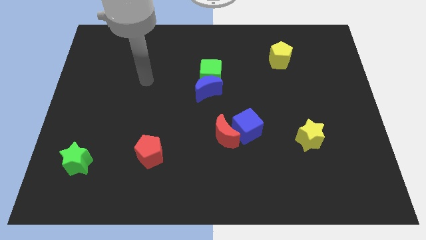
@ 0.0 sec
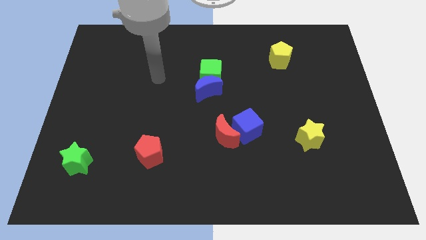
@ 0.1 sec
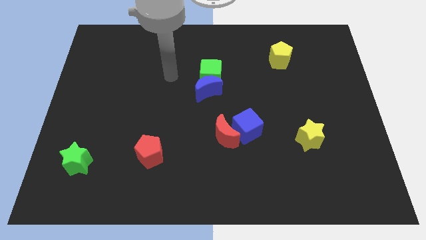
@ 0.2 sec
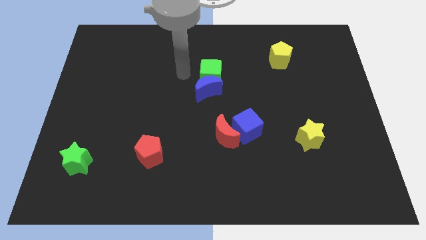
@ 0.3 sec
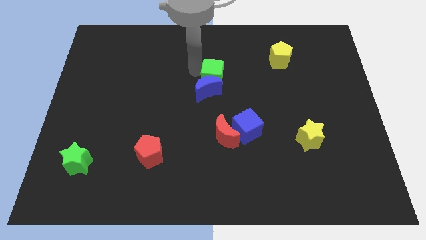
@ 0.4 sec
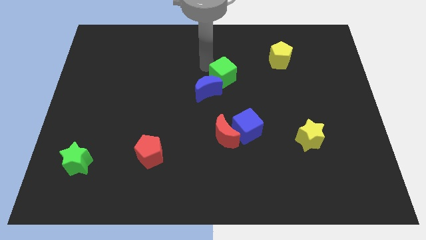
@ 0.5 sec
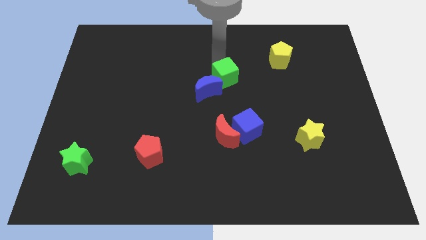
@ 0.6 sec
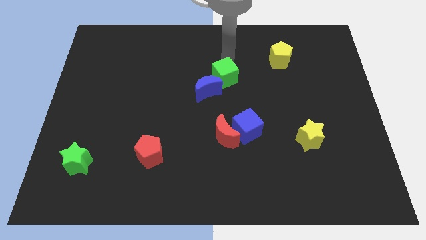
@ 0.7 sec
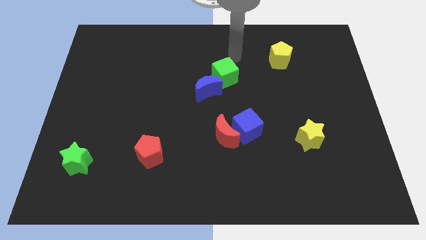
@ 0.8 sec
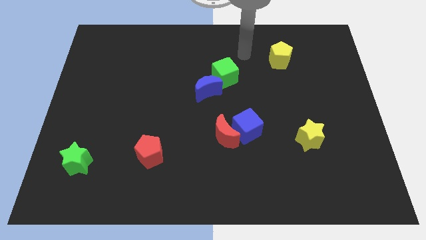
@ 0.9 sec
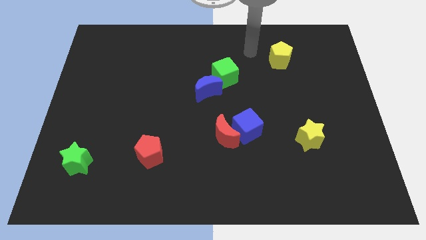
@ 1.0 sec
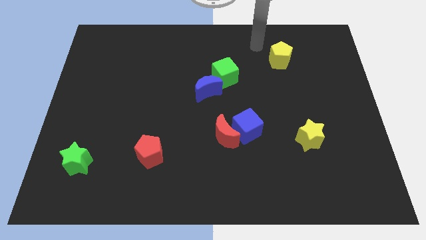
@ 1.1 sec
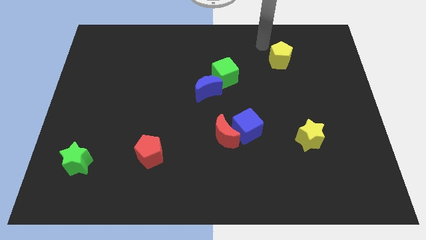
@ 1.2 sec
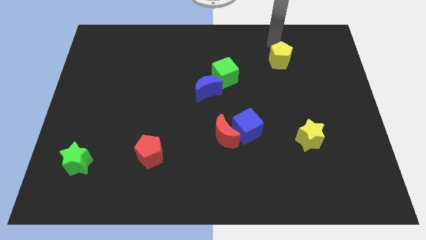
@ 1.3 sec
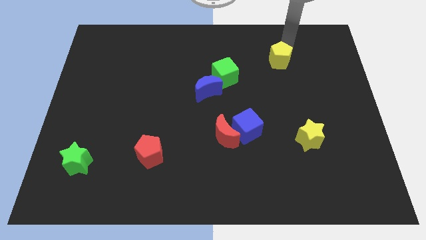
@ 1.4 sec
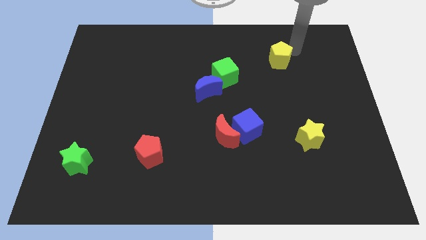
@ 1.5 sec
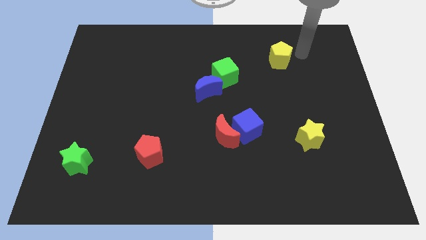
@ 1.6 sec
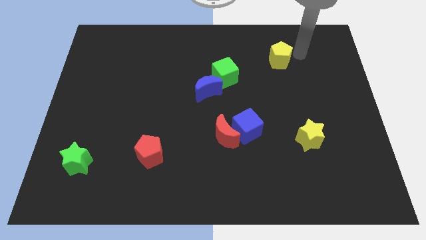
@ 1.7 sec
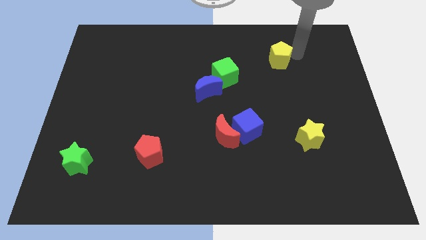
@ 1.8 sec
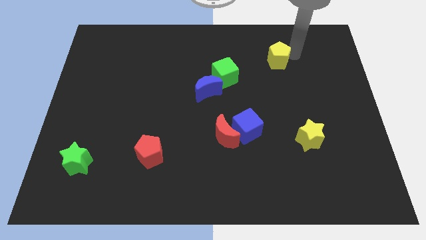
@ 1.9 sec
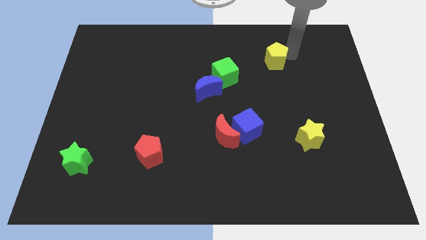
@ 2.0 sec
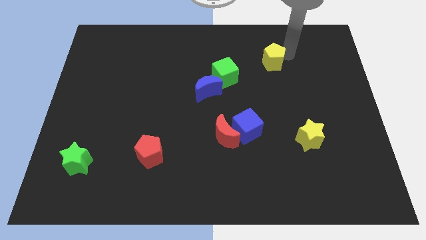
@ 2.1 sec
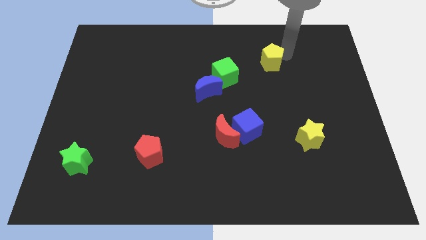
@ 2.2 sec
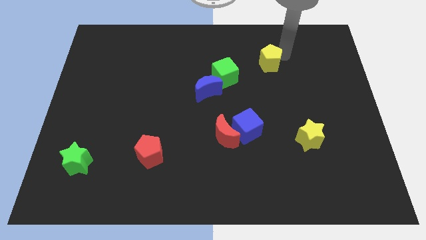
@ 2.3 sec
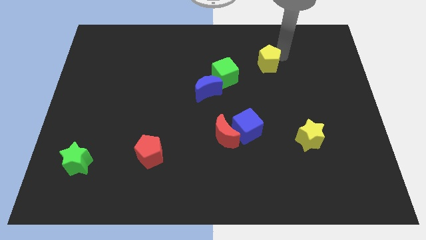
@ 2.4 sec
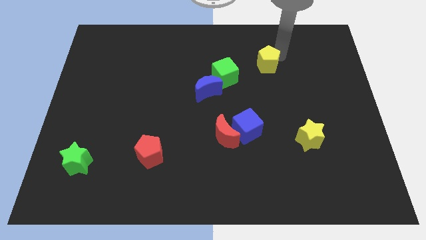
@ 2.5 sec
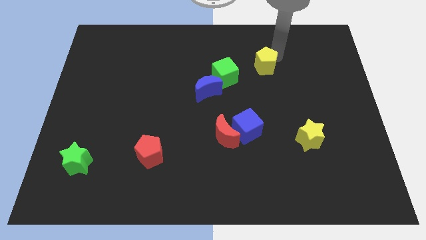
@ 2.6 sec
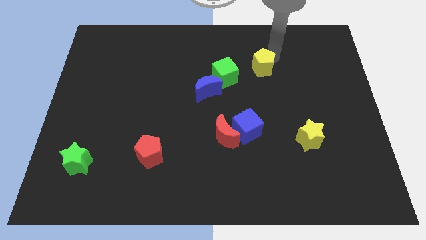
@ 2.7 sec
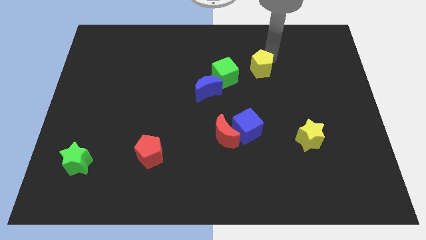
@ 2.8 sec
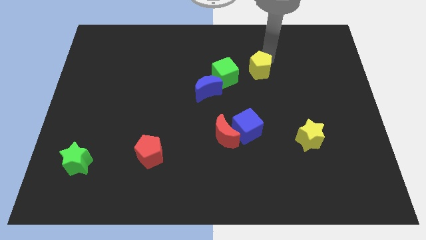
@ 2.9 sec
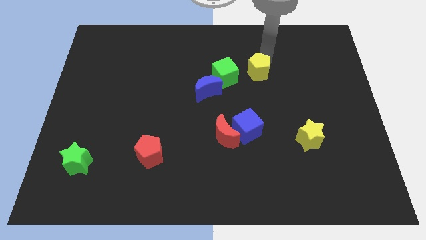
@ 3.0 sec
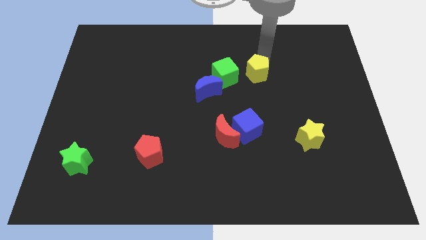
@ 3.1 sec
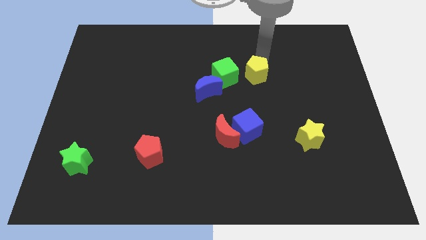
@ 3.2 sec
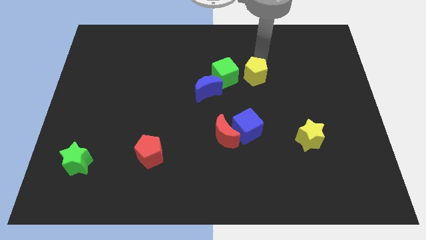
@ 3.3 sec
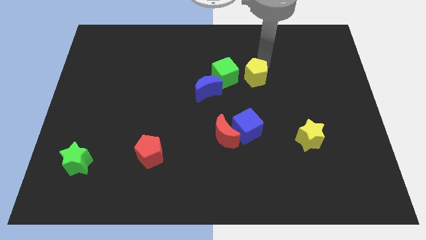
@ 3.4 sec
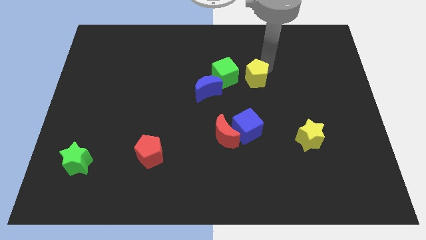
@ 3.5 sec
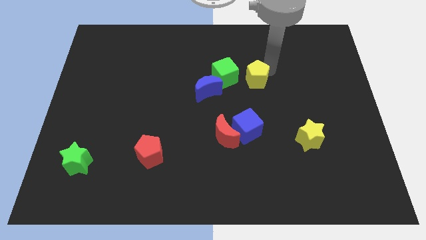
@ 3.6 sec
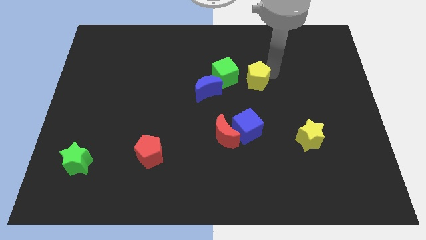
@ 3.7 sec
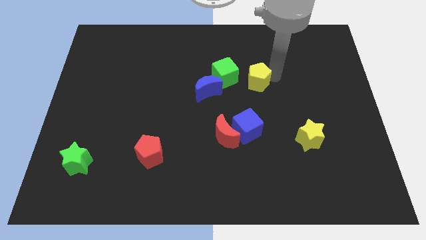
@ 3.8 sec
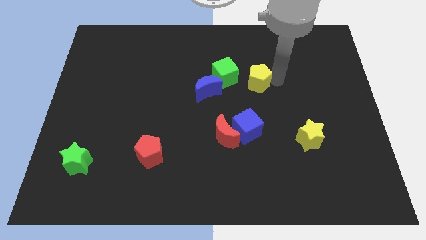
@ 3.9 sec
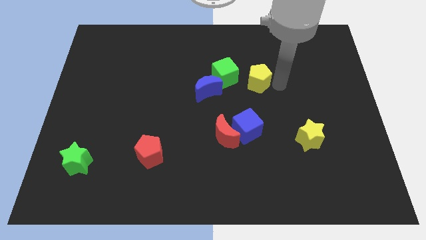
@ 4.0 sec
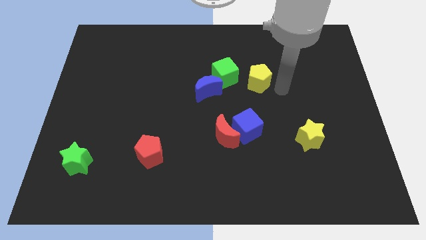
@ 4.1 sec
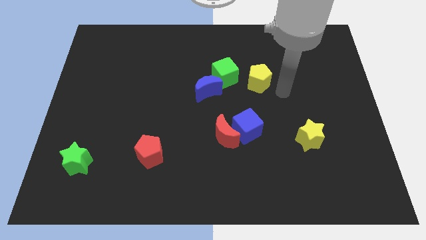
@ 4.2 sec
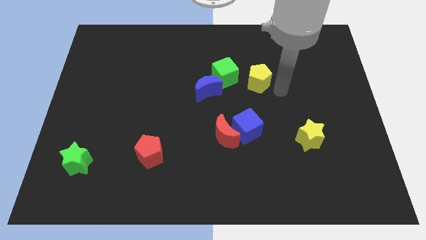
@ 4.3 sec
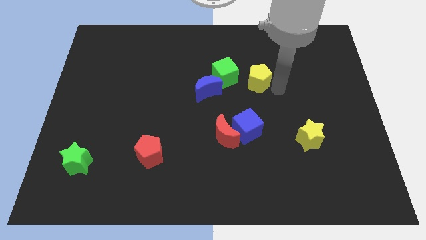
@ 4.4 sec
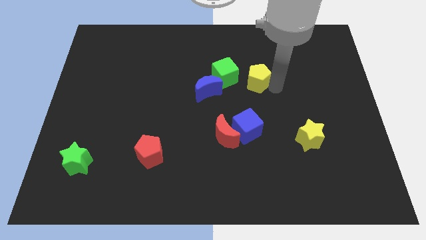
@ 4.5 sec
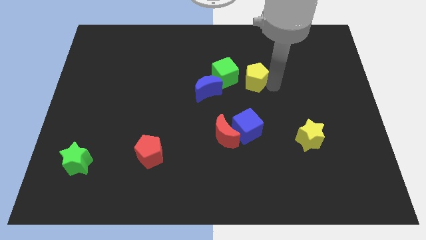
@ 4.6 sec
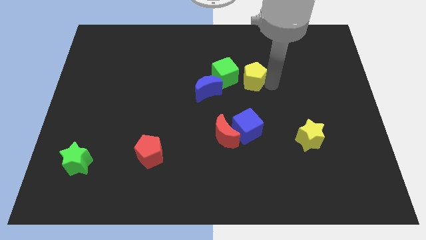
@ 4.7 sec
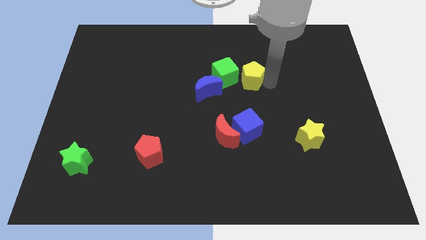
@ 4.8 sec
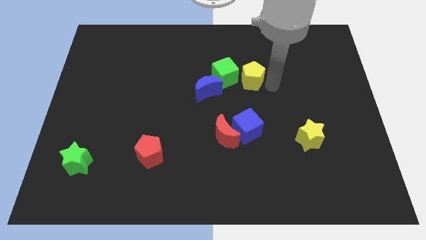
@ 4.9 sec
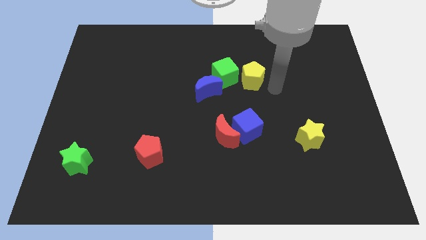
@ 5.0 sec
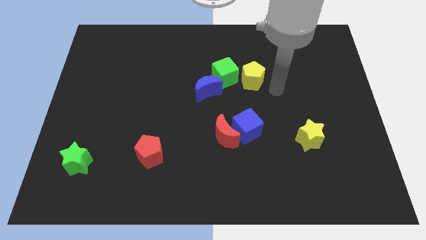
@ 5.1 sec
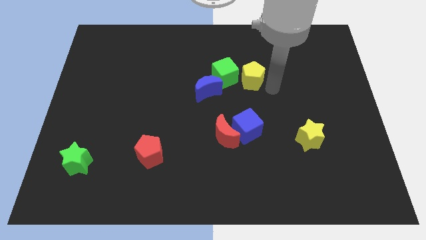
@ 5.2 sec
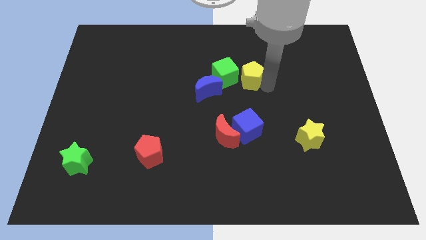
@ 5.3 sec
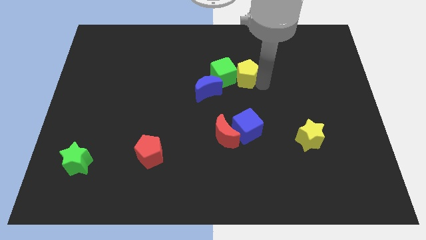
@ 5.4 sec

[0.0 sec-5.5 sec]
push the yellow pentagon next to the green cube
